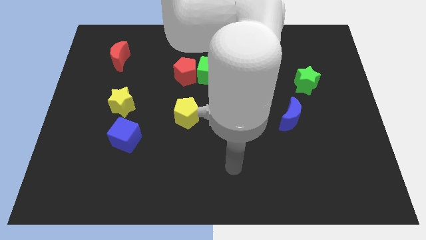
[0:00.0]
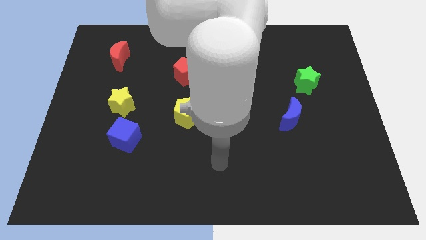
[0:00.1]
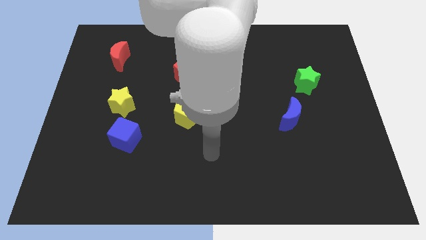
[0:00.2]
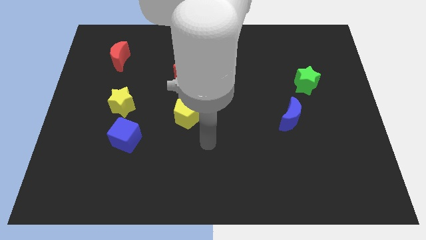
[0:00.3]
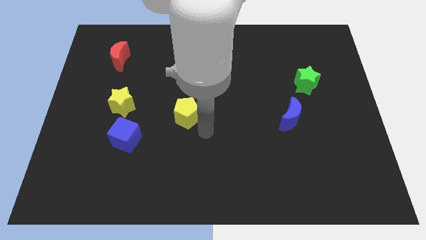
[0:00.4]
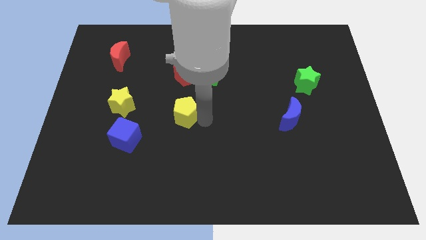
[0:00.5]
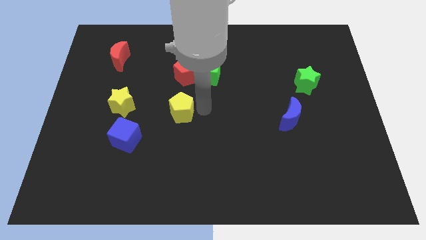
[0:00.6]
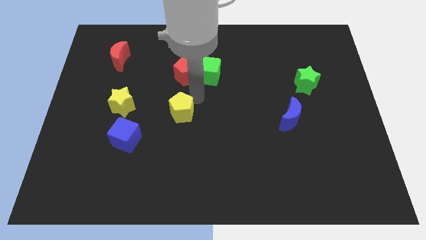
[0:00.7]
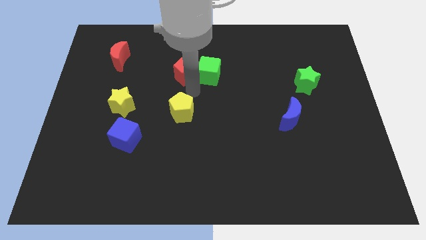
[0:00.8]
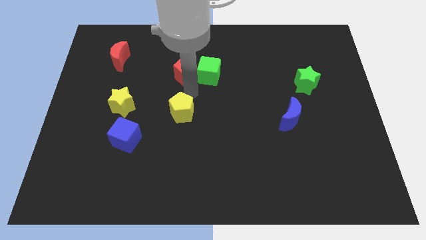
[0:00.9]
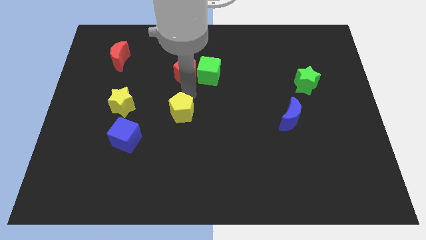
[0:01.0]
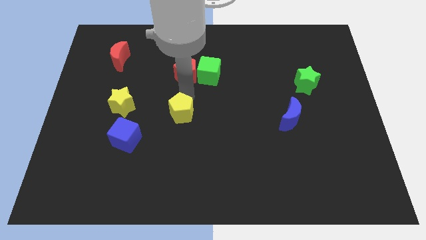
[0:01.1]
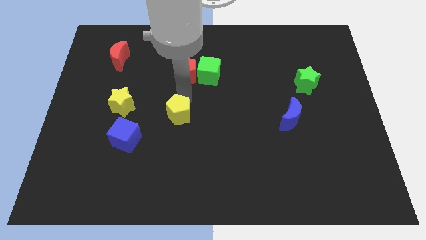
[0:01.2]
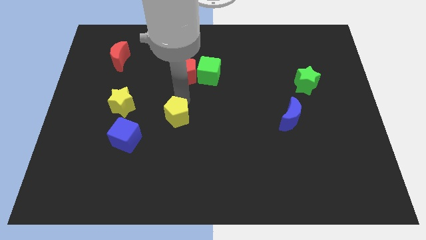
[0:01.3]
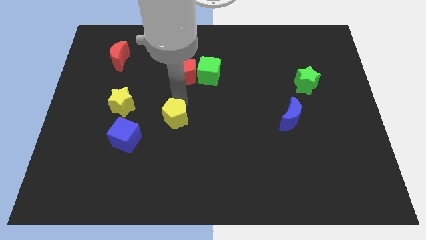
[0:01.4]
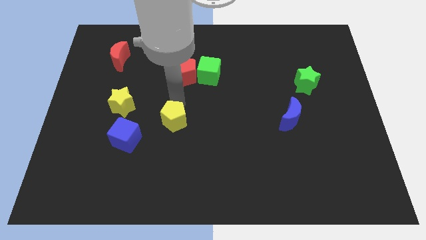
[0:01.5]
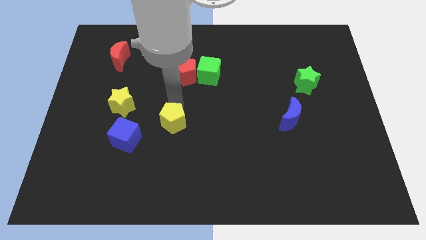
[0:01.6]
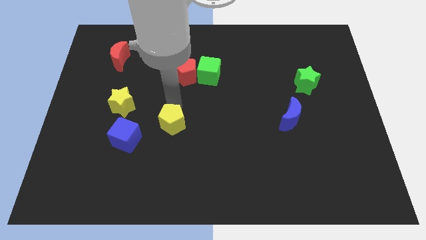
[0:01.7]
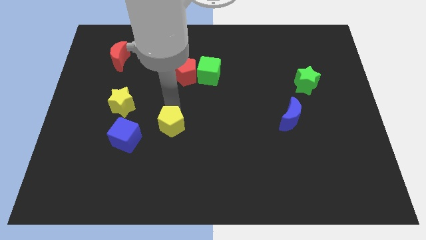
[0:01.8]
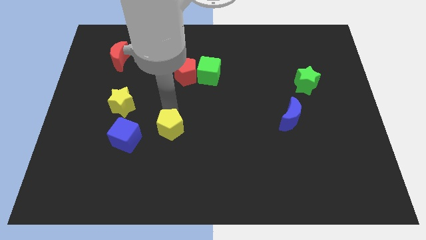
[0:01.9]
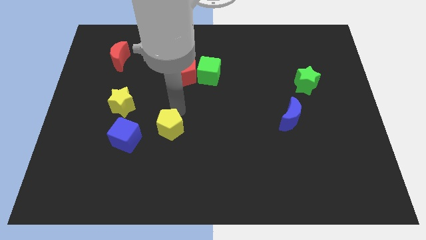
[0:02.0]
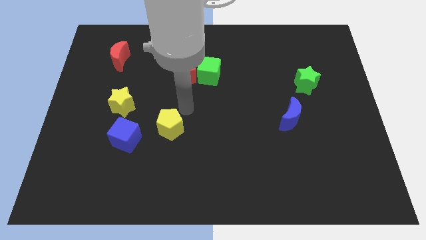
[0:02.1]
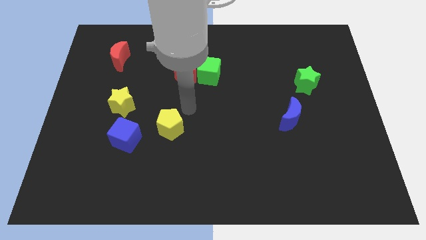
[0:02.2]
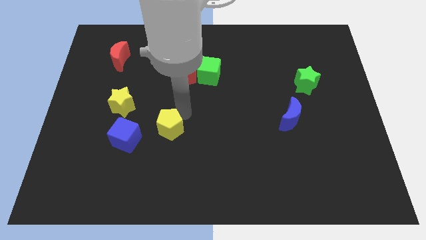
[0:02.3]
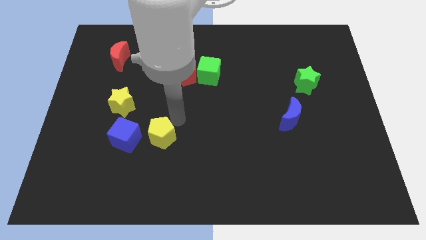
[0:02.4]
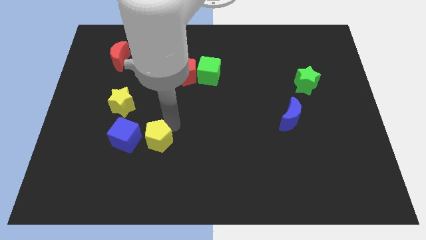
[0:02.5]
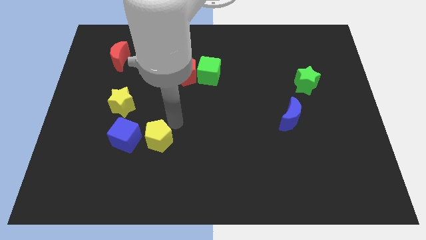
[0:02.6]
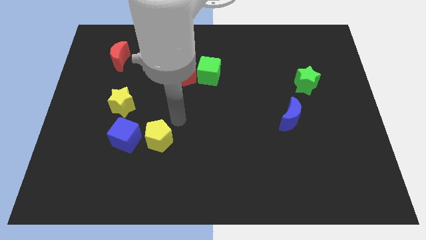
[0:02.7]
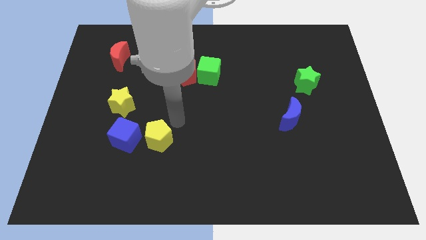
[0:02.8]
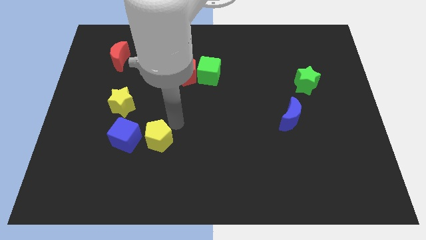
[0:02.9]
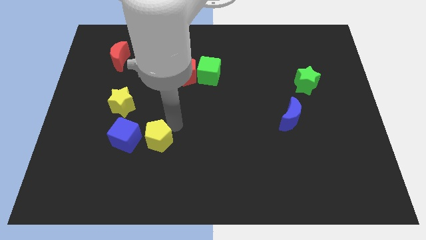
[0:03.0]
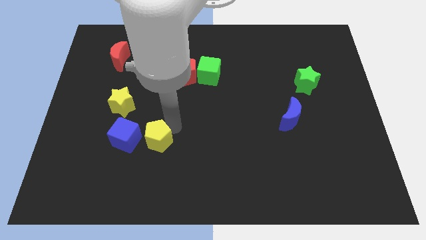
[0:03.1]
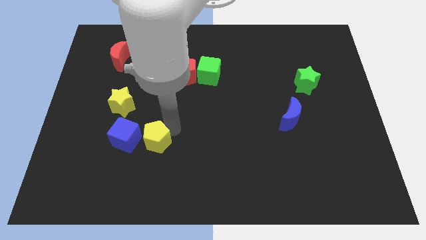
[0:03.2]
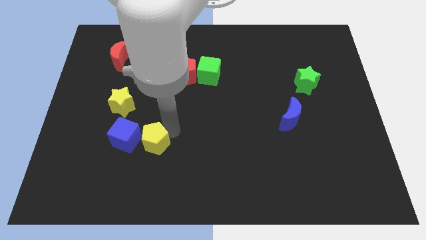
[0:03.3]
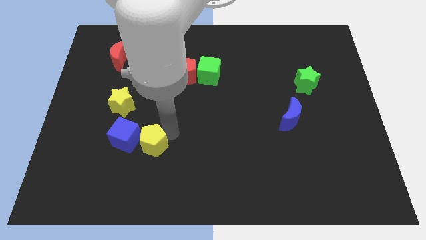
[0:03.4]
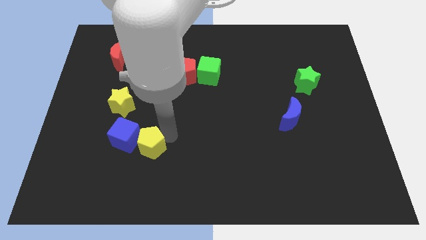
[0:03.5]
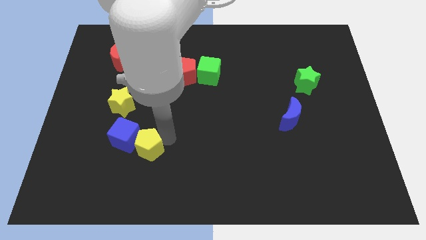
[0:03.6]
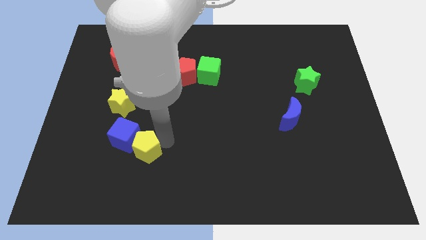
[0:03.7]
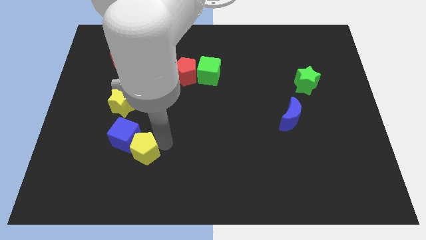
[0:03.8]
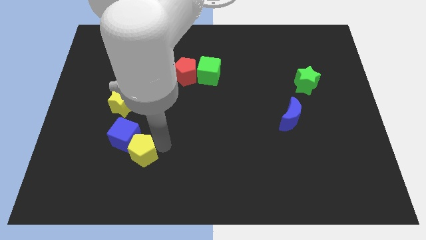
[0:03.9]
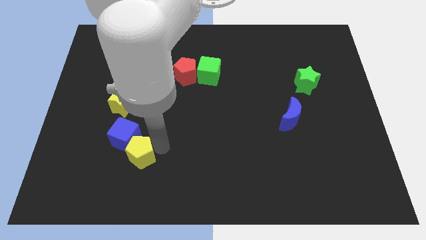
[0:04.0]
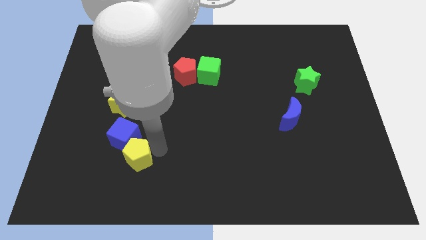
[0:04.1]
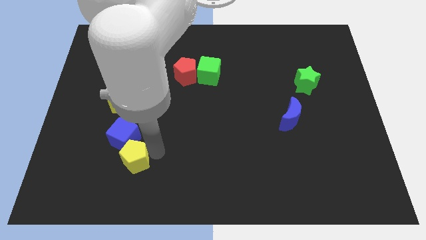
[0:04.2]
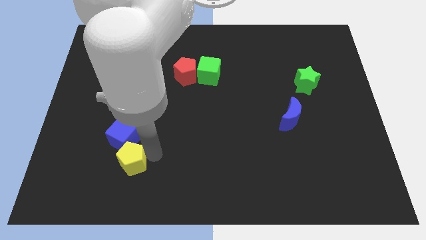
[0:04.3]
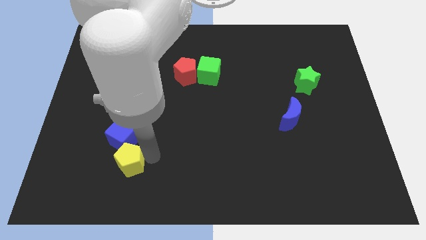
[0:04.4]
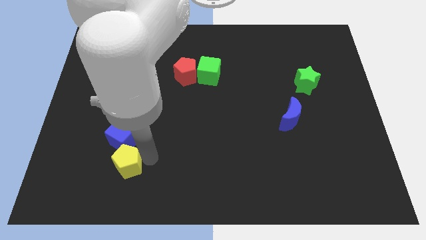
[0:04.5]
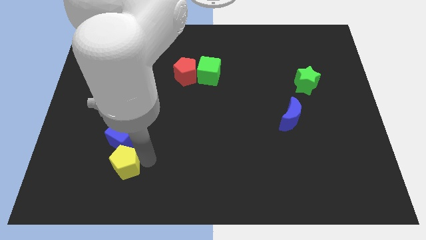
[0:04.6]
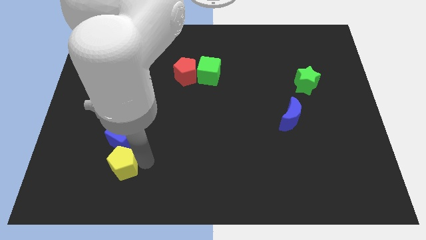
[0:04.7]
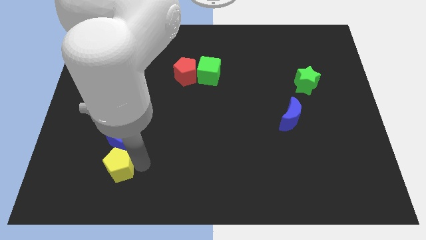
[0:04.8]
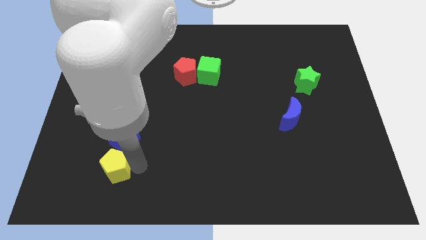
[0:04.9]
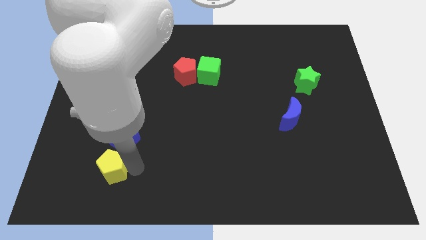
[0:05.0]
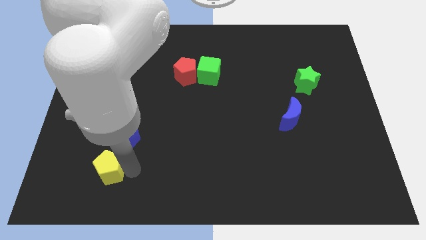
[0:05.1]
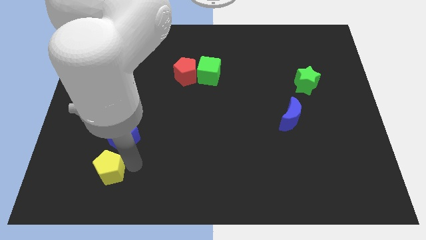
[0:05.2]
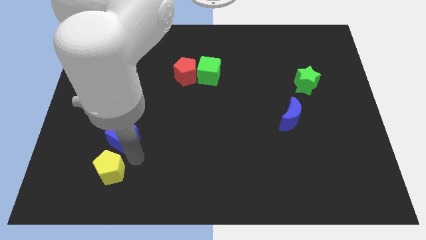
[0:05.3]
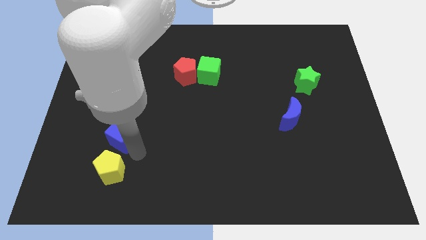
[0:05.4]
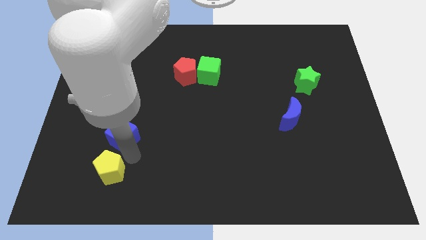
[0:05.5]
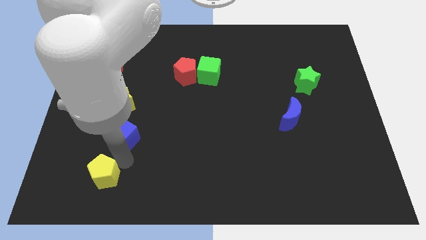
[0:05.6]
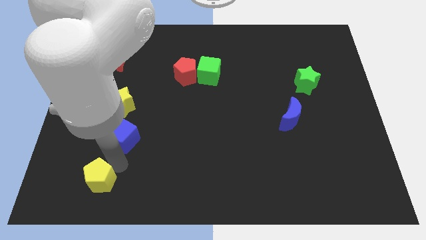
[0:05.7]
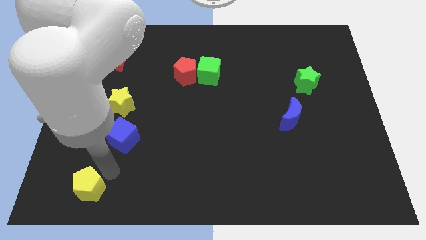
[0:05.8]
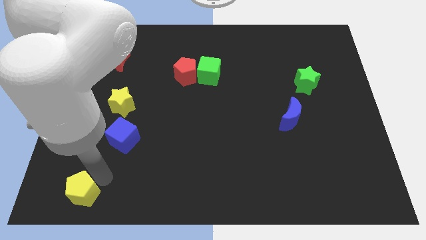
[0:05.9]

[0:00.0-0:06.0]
put the yellow pentagon to the lower left corner

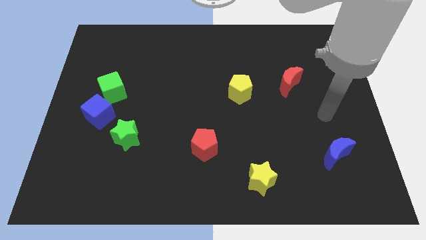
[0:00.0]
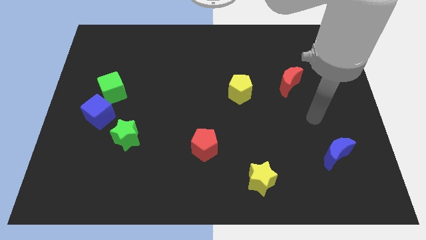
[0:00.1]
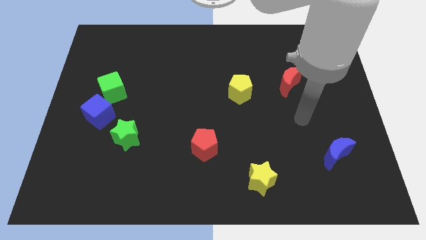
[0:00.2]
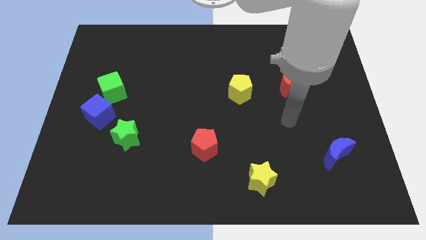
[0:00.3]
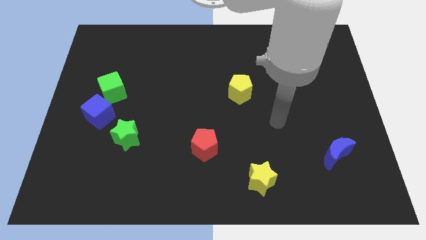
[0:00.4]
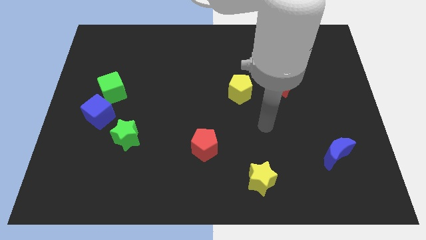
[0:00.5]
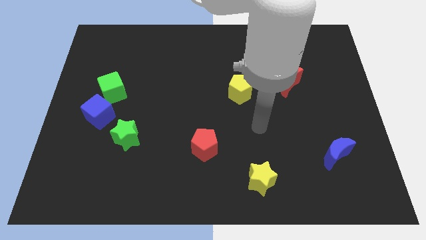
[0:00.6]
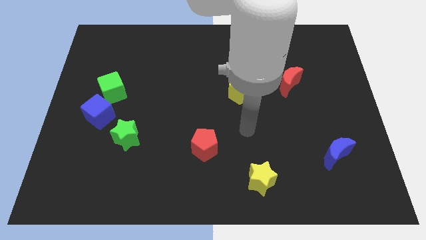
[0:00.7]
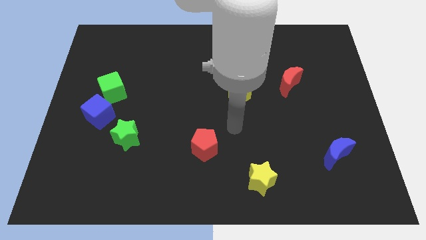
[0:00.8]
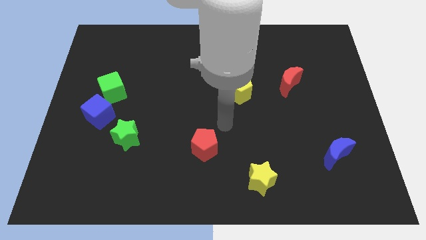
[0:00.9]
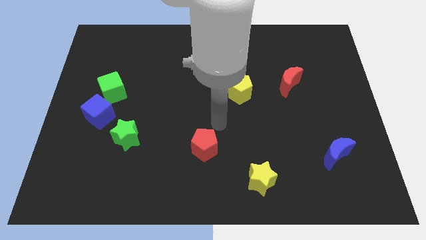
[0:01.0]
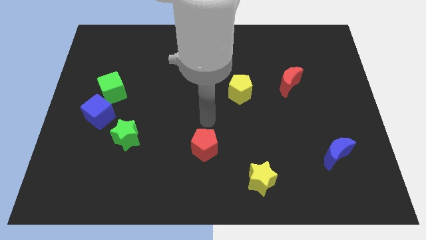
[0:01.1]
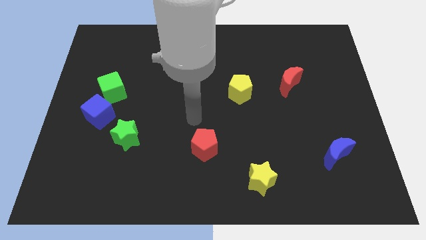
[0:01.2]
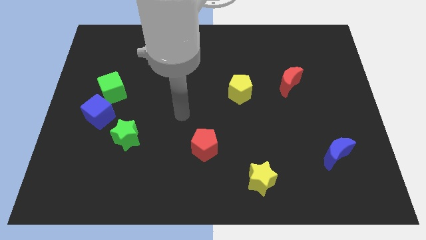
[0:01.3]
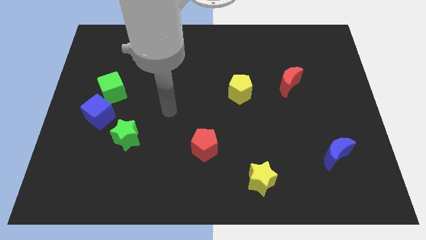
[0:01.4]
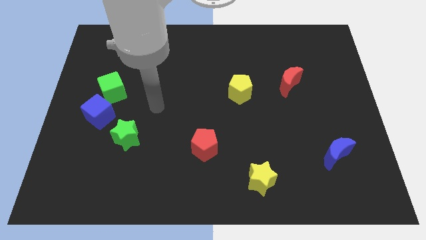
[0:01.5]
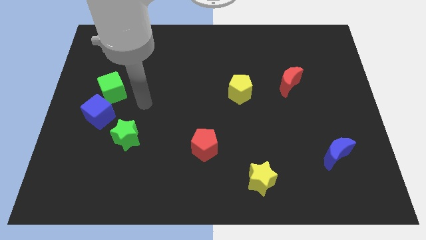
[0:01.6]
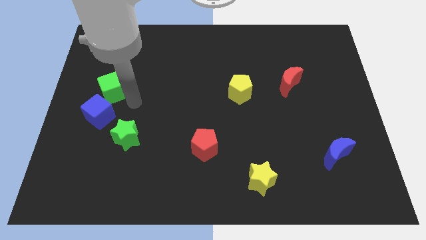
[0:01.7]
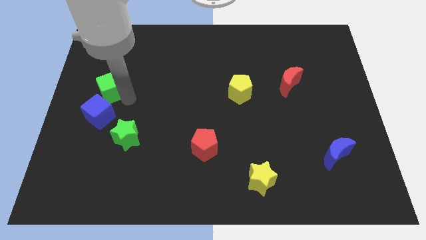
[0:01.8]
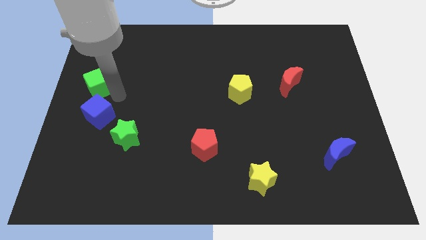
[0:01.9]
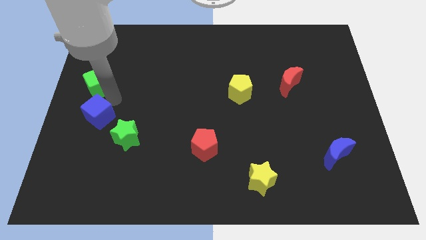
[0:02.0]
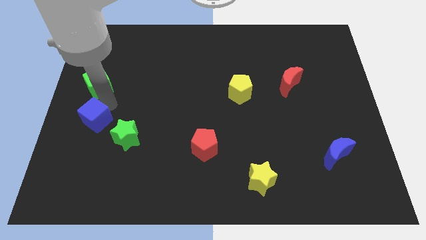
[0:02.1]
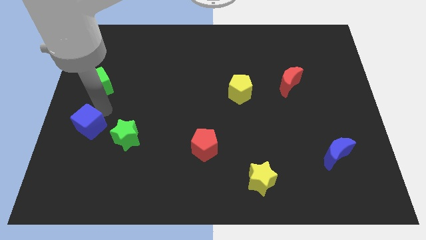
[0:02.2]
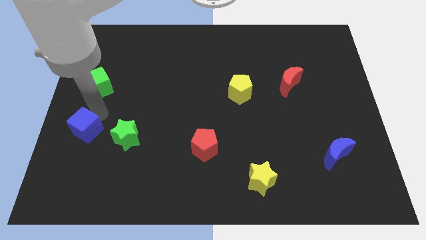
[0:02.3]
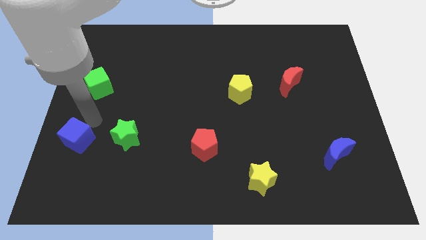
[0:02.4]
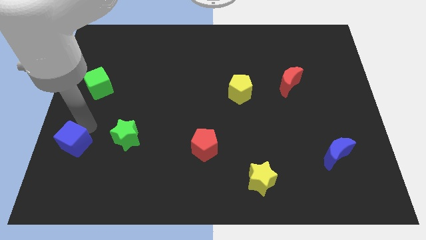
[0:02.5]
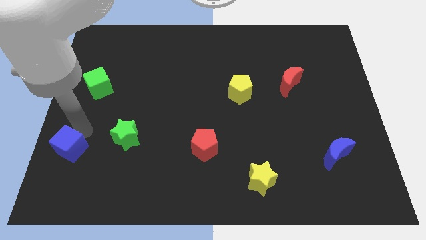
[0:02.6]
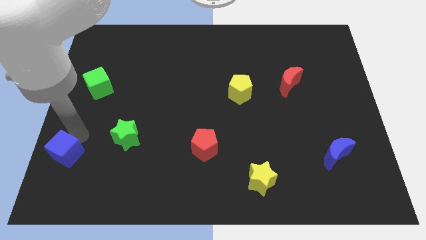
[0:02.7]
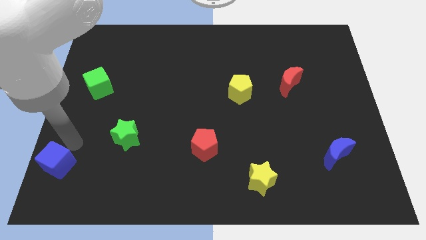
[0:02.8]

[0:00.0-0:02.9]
slide the blue cube to the lower left corner
